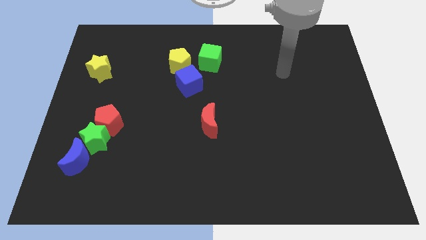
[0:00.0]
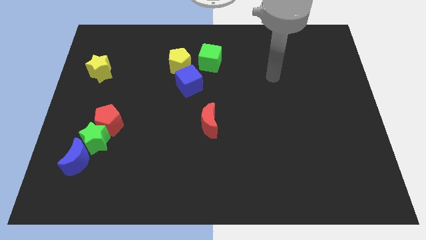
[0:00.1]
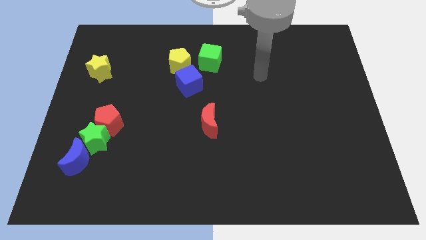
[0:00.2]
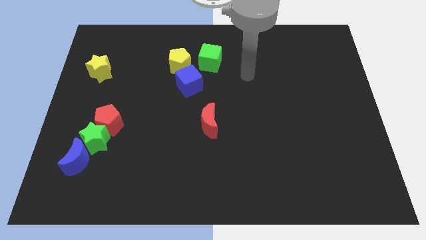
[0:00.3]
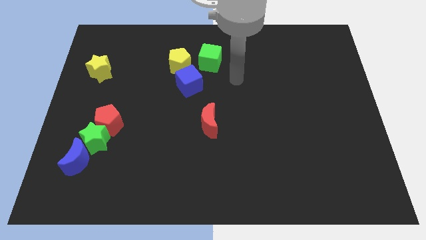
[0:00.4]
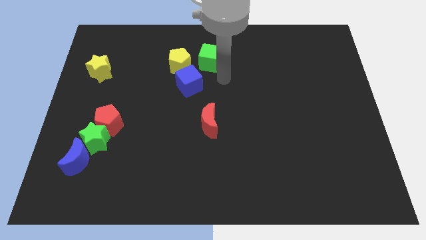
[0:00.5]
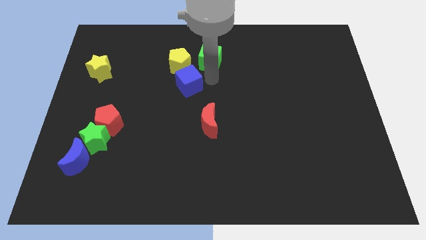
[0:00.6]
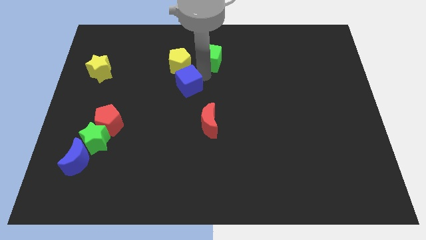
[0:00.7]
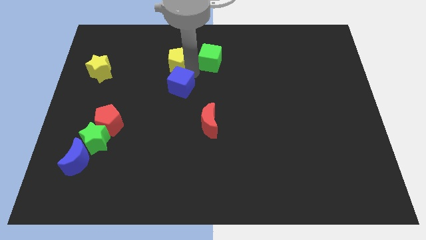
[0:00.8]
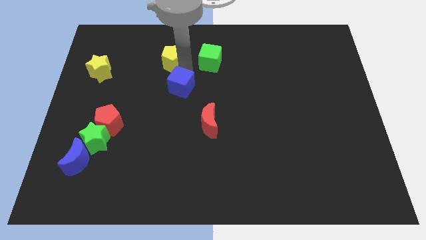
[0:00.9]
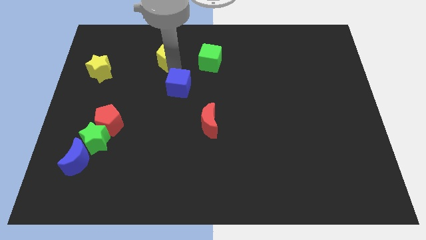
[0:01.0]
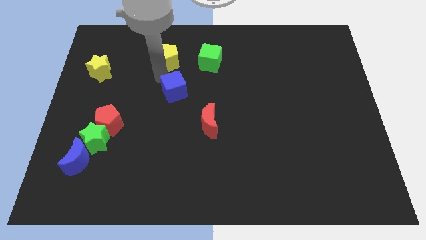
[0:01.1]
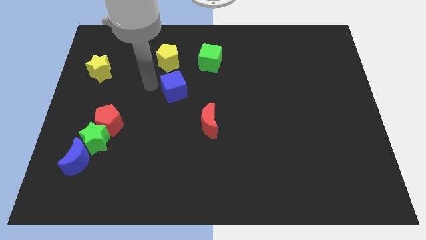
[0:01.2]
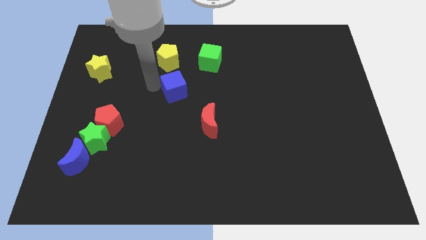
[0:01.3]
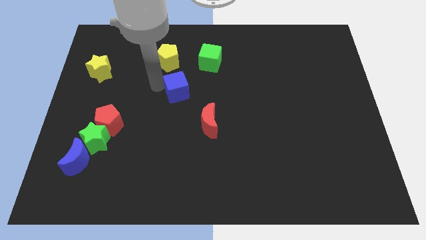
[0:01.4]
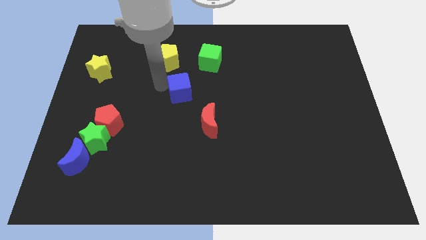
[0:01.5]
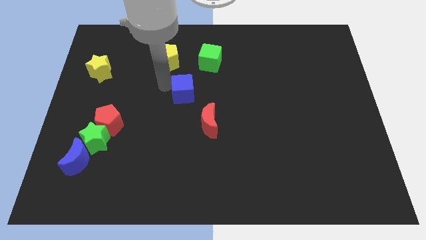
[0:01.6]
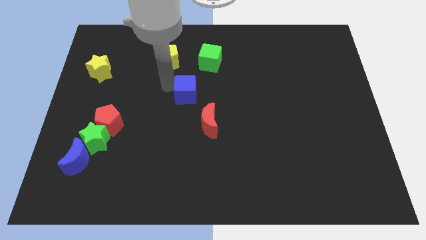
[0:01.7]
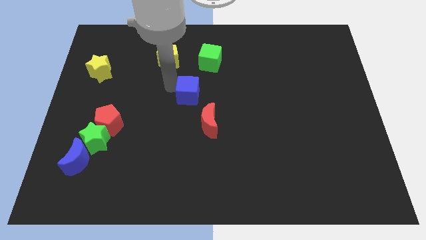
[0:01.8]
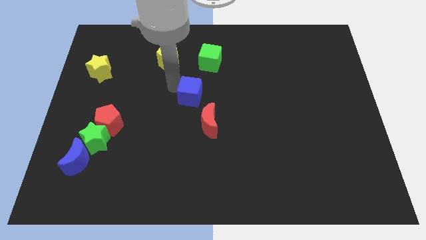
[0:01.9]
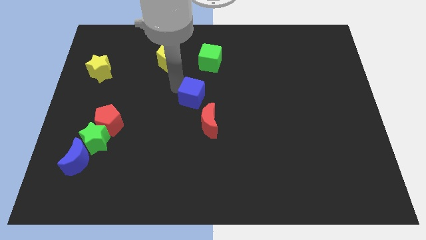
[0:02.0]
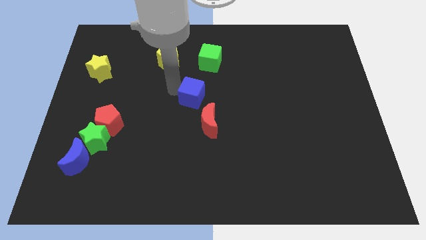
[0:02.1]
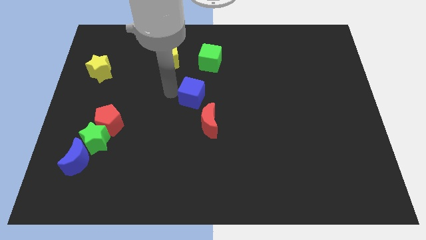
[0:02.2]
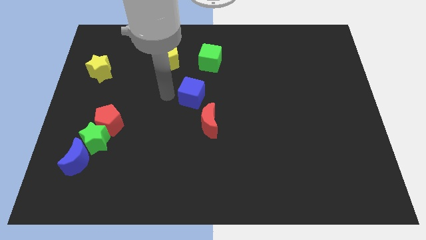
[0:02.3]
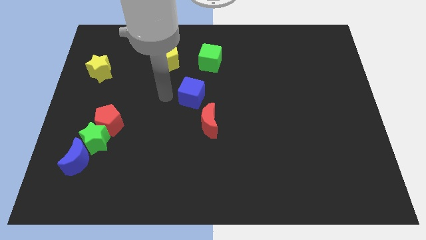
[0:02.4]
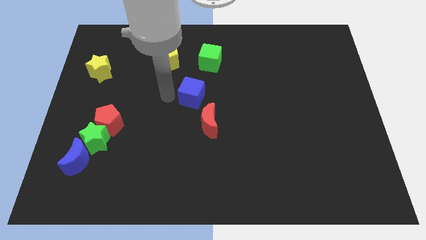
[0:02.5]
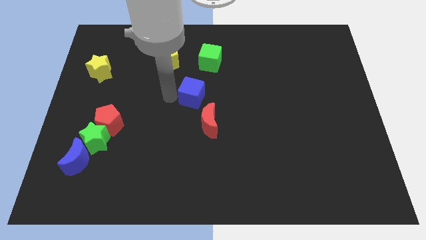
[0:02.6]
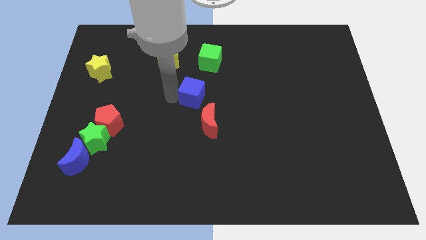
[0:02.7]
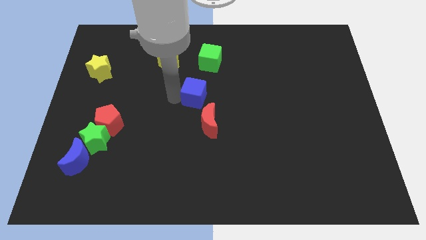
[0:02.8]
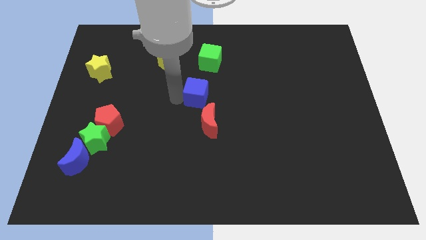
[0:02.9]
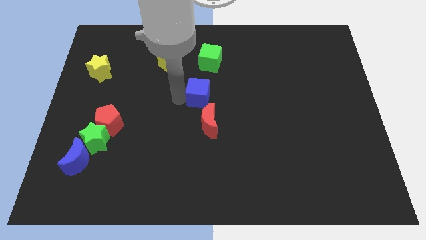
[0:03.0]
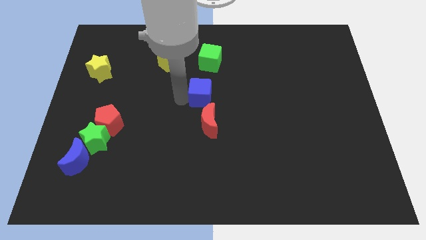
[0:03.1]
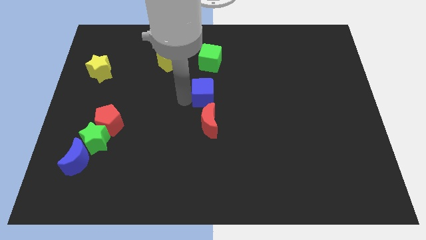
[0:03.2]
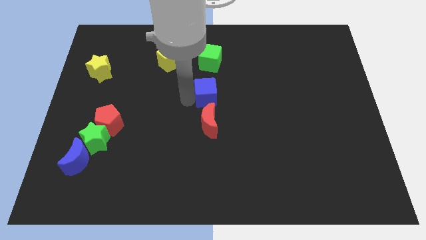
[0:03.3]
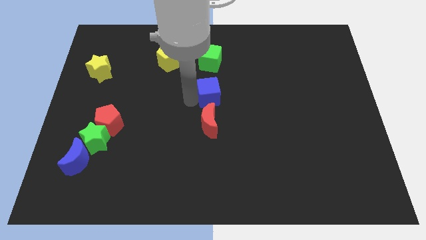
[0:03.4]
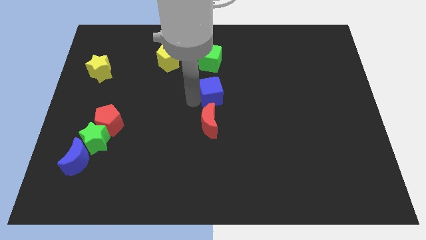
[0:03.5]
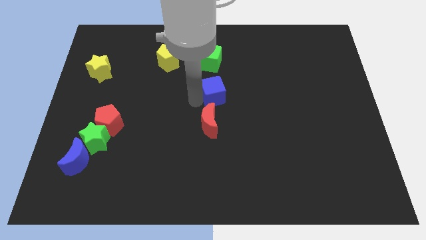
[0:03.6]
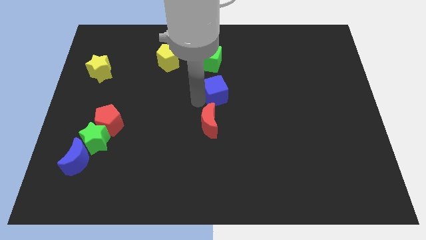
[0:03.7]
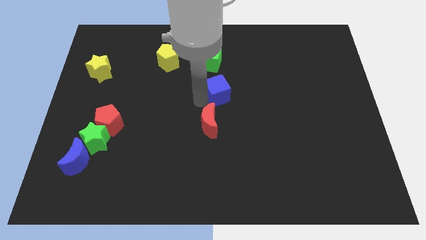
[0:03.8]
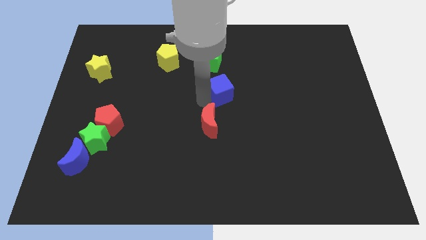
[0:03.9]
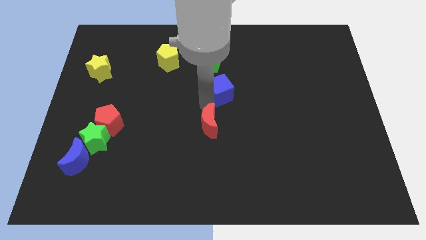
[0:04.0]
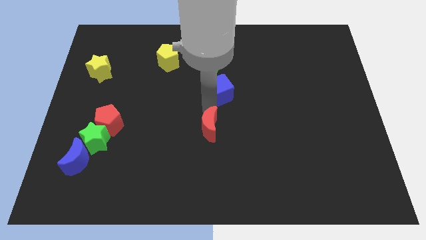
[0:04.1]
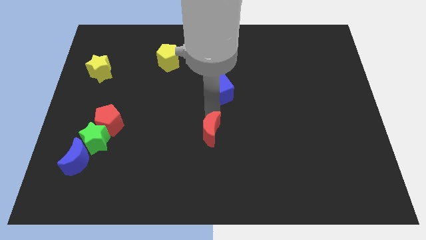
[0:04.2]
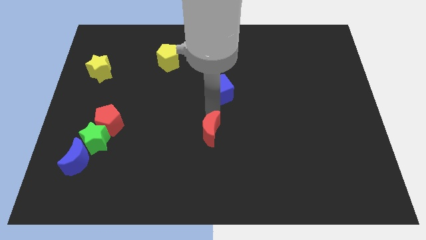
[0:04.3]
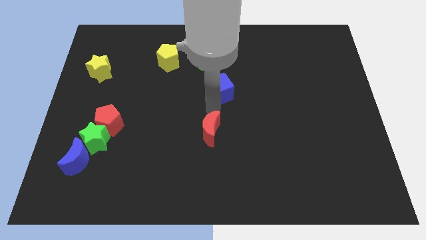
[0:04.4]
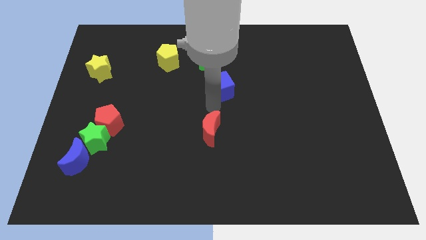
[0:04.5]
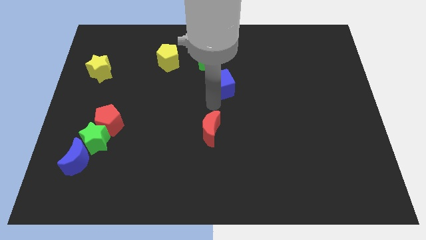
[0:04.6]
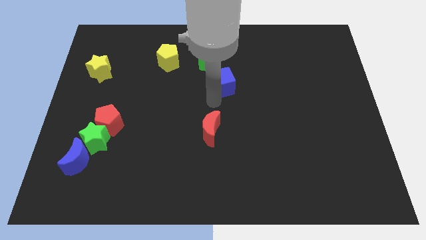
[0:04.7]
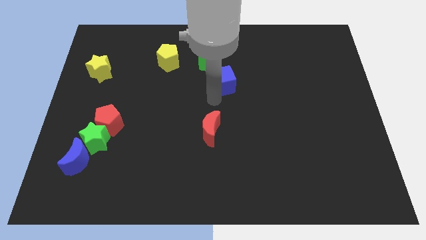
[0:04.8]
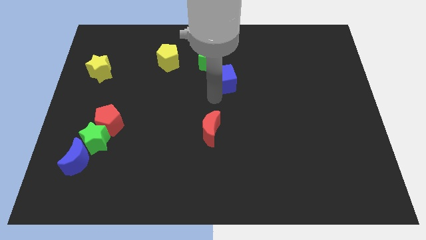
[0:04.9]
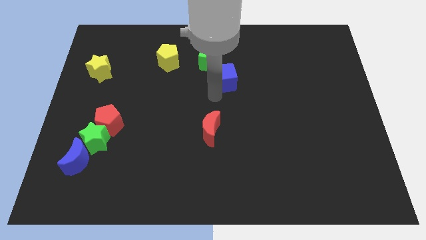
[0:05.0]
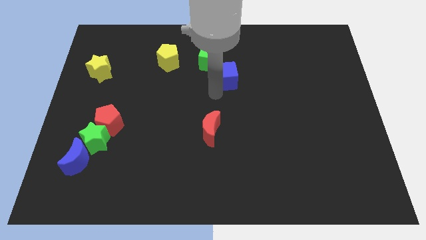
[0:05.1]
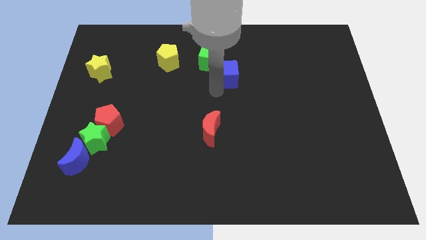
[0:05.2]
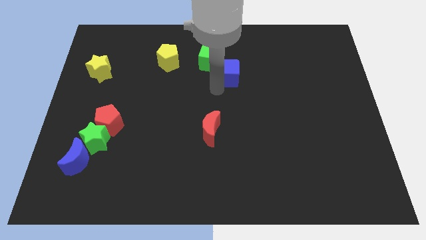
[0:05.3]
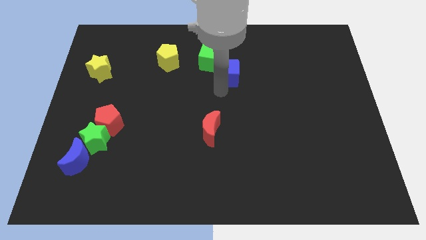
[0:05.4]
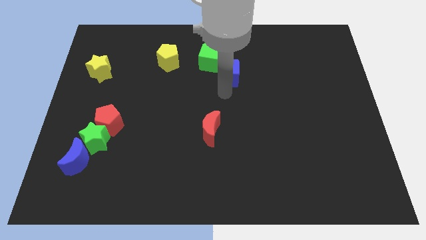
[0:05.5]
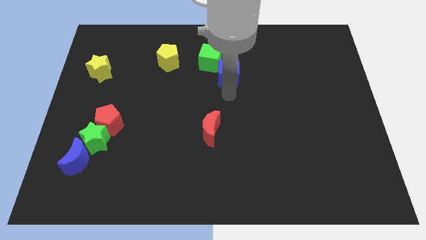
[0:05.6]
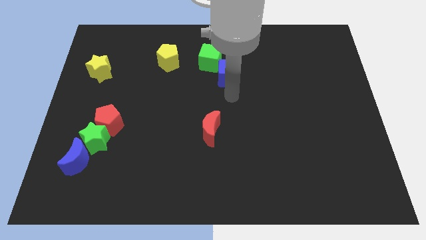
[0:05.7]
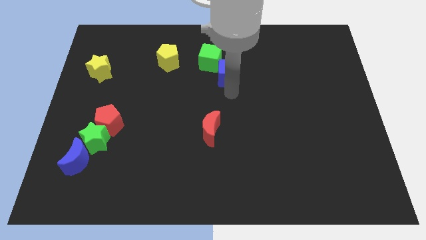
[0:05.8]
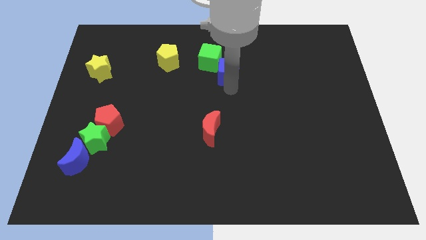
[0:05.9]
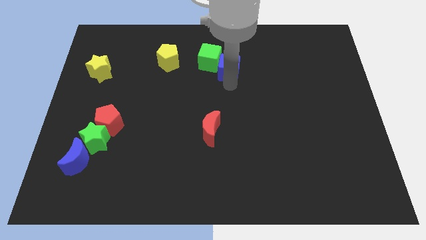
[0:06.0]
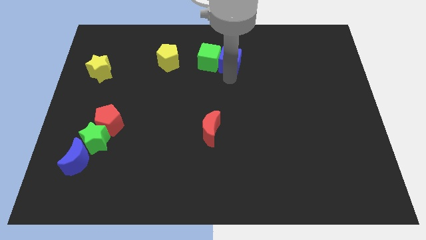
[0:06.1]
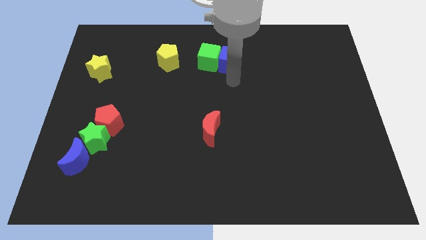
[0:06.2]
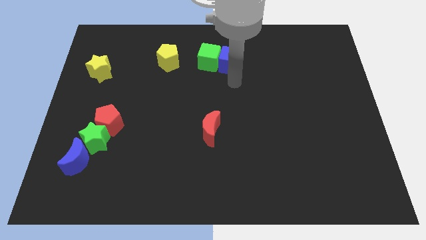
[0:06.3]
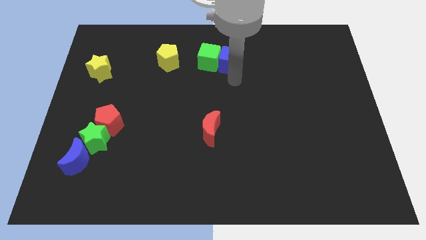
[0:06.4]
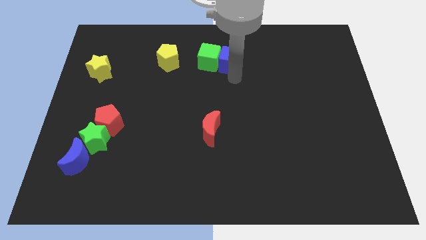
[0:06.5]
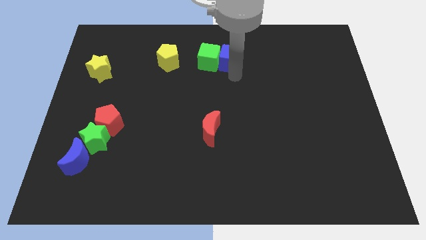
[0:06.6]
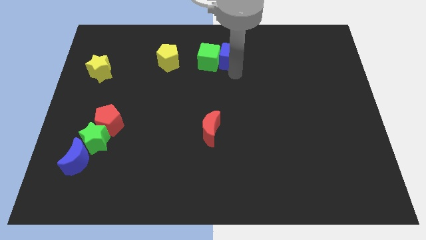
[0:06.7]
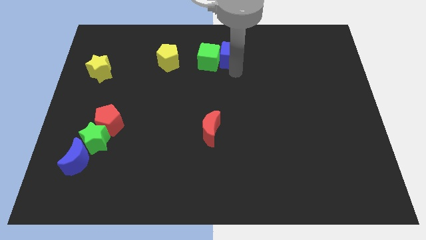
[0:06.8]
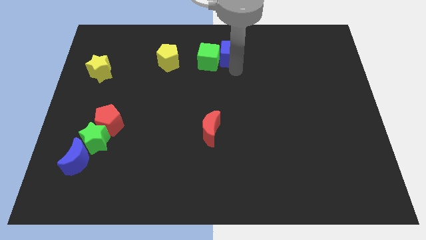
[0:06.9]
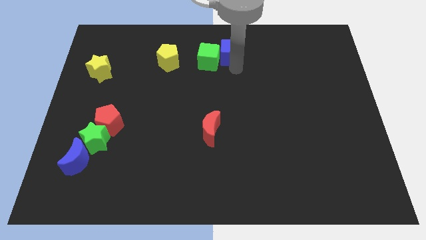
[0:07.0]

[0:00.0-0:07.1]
push the blue cube to the top side
